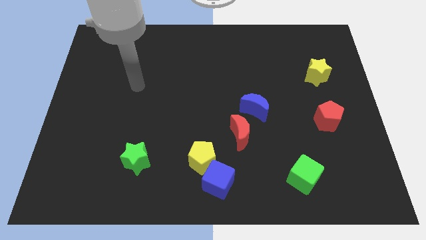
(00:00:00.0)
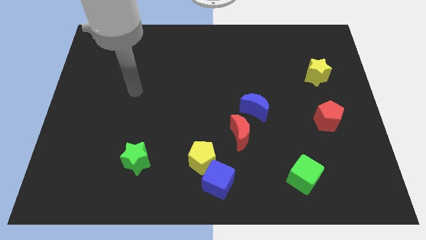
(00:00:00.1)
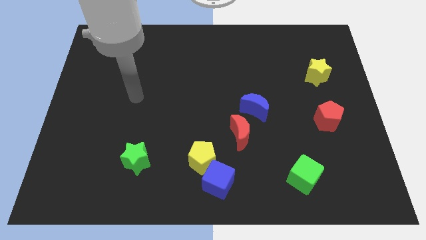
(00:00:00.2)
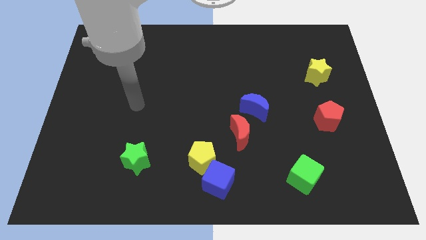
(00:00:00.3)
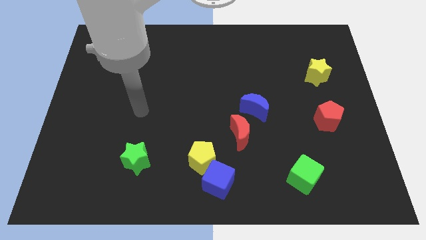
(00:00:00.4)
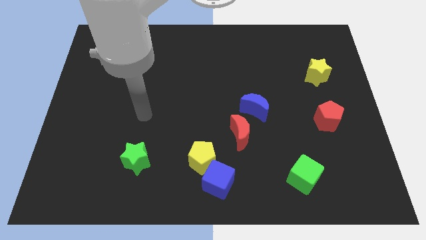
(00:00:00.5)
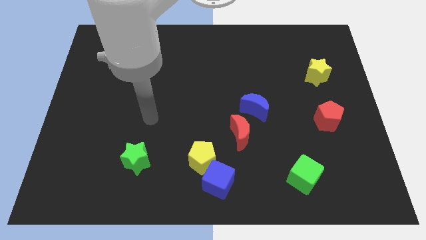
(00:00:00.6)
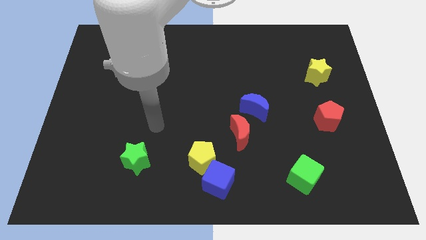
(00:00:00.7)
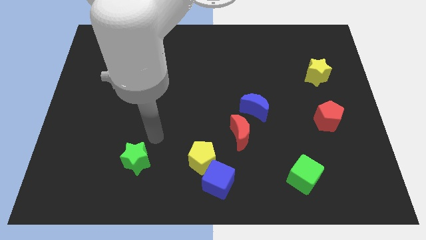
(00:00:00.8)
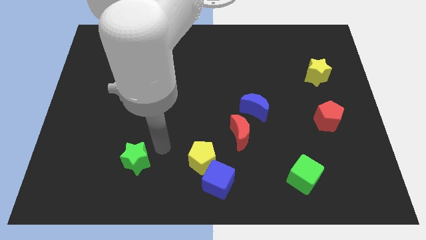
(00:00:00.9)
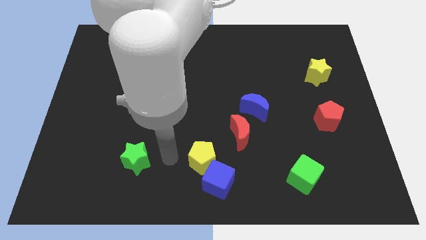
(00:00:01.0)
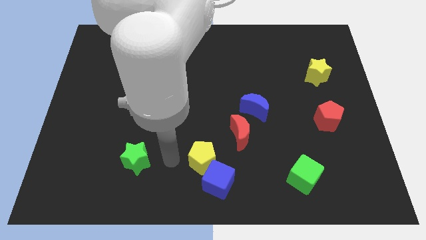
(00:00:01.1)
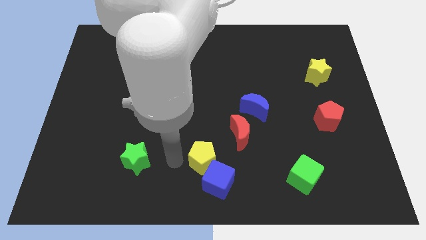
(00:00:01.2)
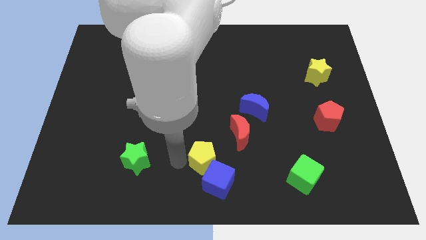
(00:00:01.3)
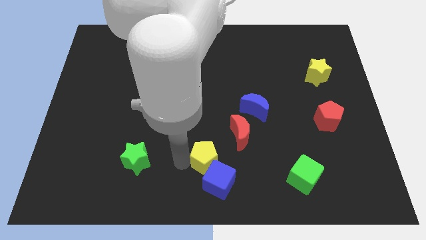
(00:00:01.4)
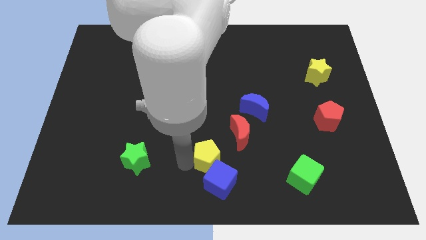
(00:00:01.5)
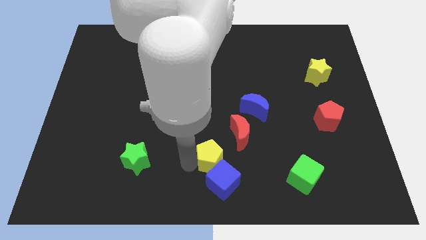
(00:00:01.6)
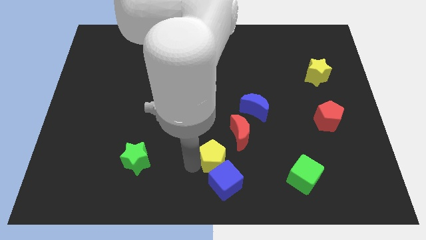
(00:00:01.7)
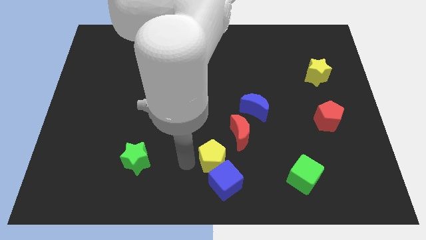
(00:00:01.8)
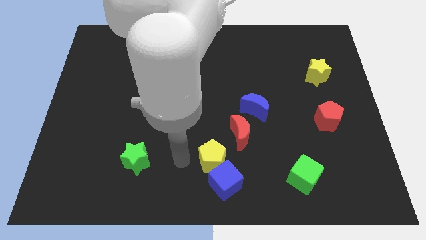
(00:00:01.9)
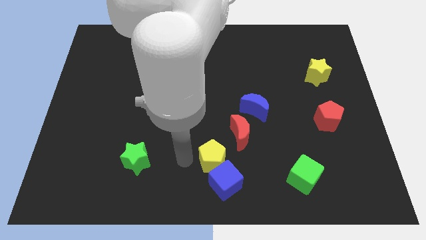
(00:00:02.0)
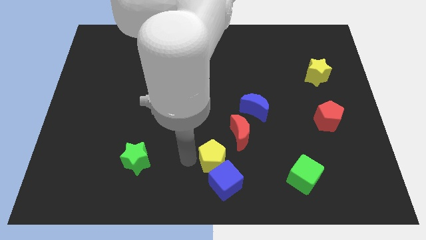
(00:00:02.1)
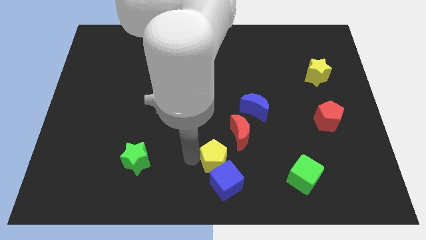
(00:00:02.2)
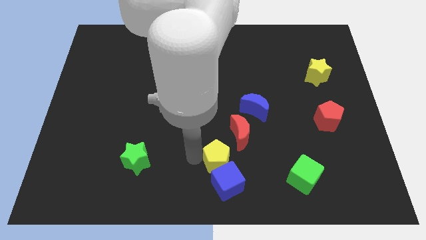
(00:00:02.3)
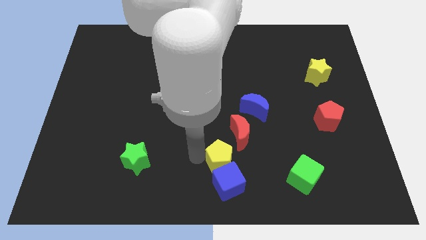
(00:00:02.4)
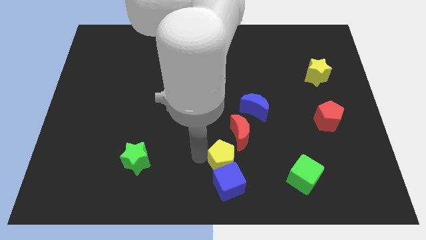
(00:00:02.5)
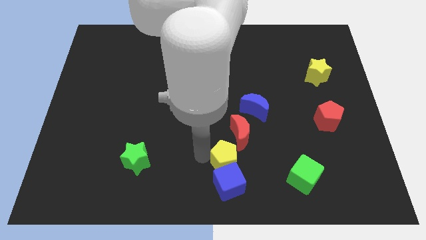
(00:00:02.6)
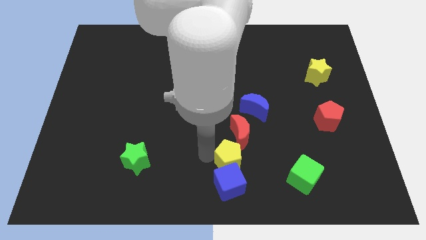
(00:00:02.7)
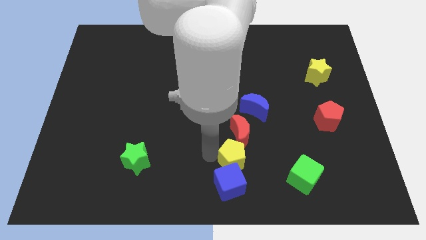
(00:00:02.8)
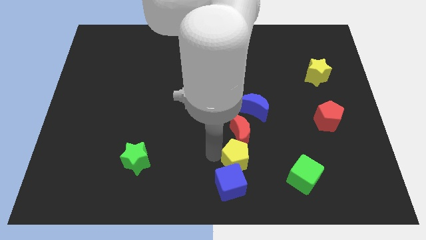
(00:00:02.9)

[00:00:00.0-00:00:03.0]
push the yellow pentagon to the right somewhat

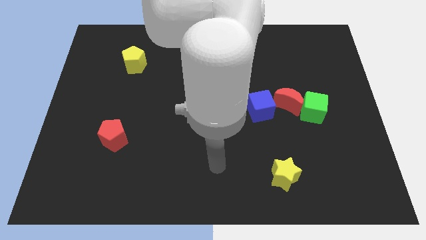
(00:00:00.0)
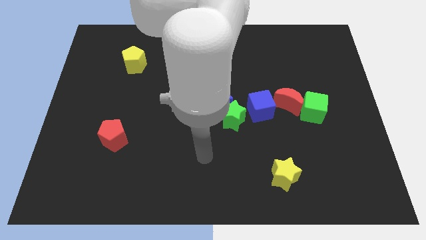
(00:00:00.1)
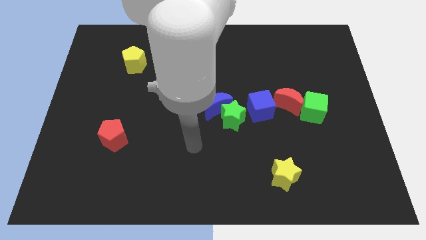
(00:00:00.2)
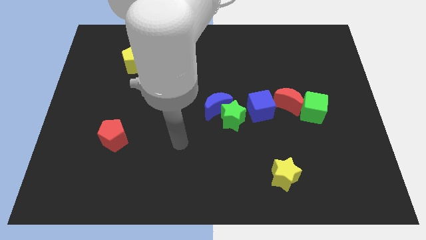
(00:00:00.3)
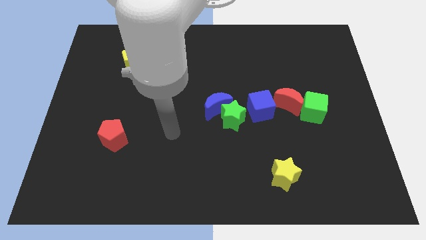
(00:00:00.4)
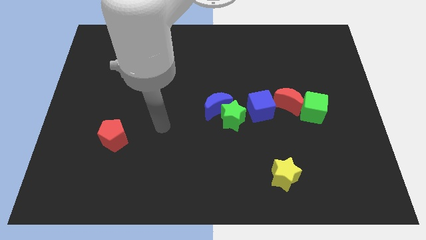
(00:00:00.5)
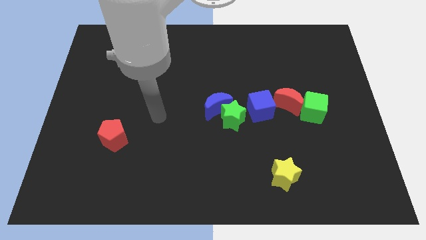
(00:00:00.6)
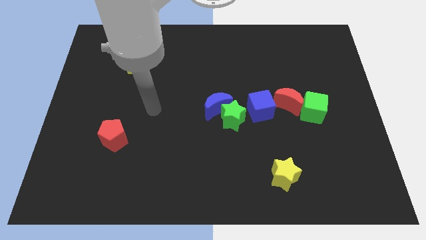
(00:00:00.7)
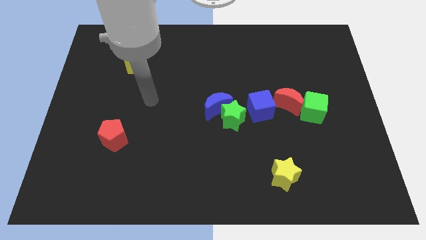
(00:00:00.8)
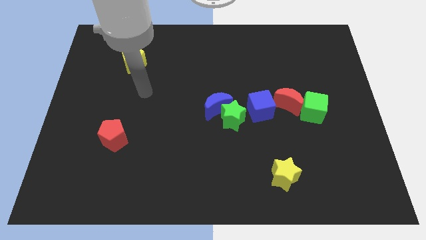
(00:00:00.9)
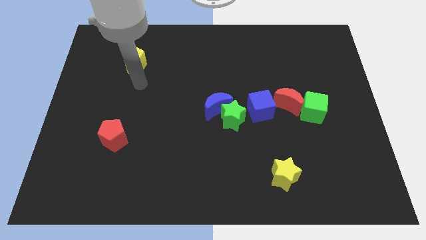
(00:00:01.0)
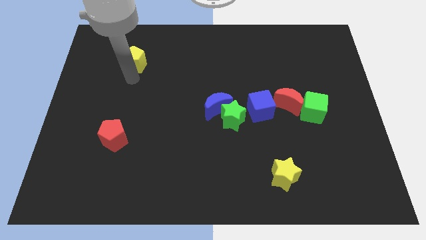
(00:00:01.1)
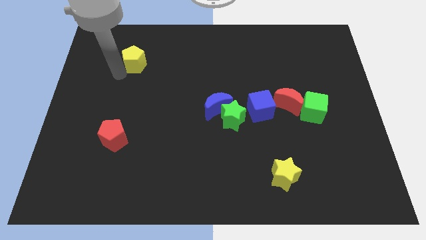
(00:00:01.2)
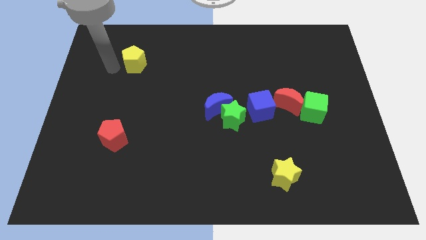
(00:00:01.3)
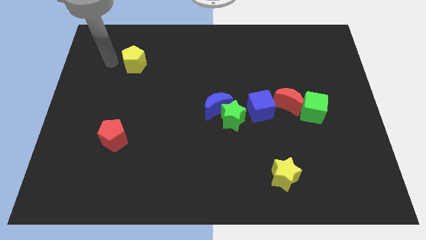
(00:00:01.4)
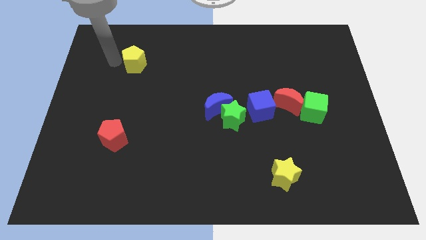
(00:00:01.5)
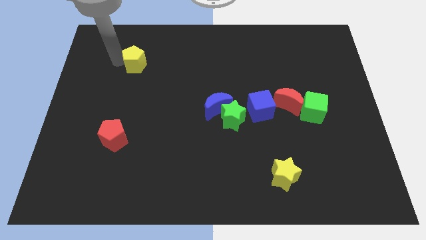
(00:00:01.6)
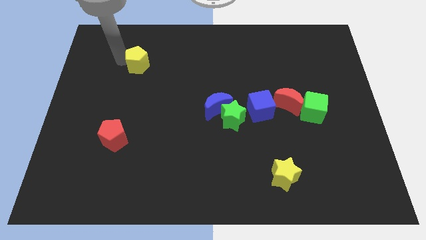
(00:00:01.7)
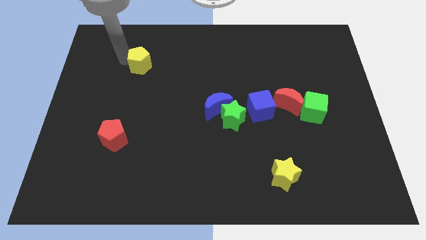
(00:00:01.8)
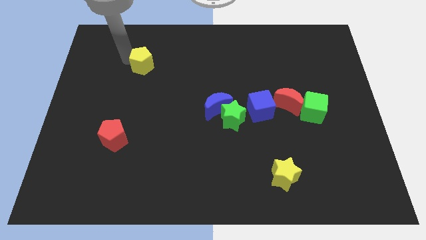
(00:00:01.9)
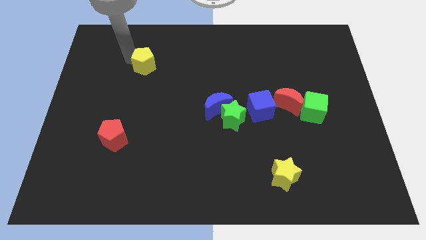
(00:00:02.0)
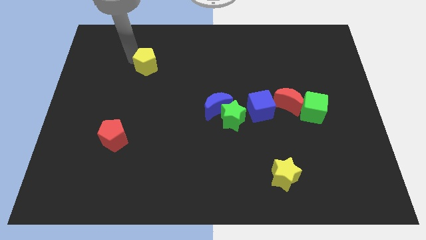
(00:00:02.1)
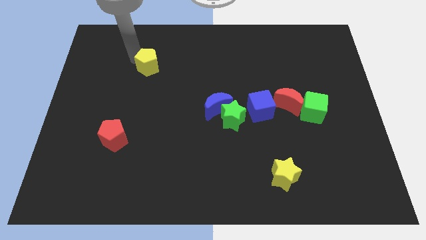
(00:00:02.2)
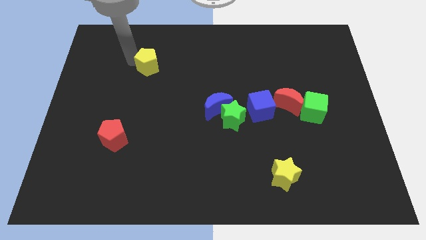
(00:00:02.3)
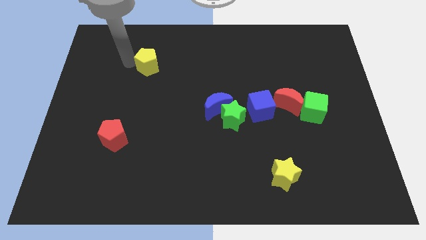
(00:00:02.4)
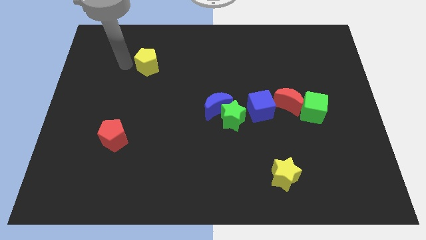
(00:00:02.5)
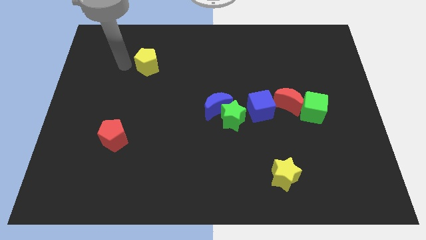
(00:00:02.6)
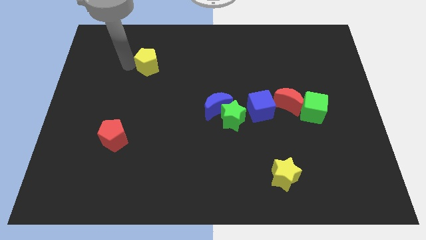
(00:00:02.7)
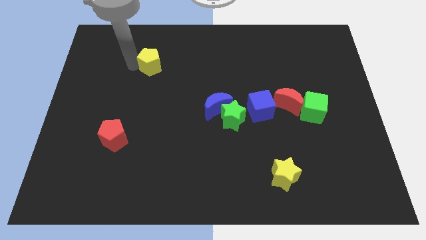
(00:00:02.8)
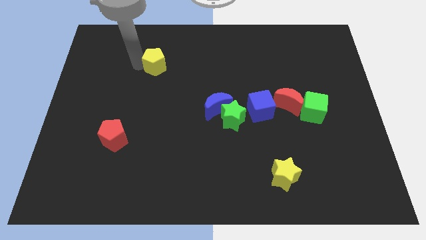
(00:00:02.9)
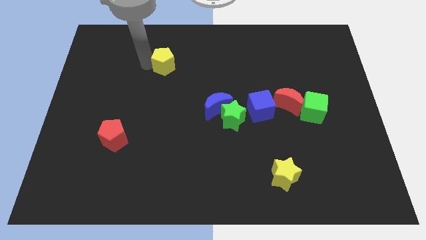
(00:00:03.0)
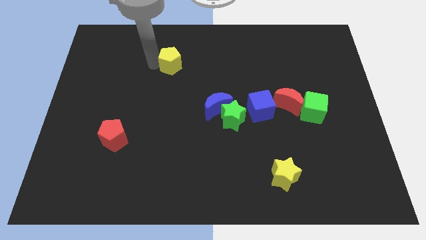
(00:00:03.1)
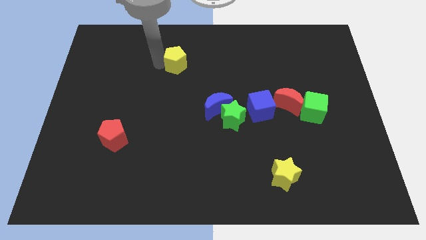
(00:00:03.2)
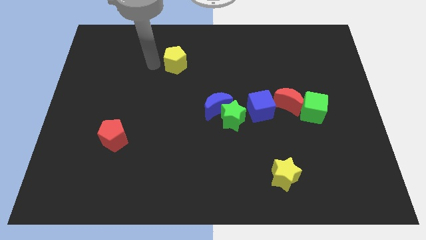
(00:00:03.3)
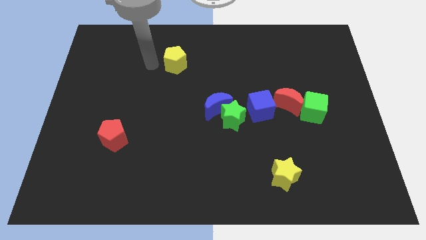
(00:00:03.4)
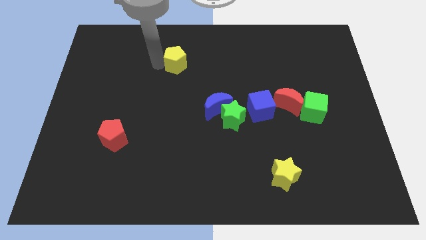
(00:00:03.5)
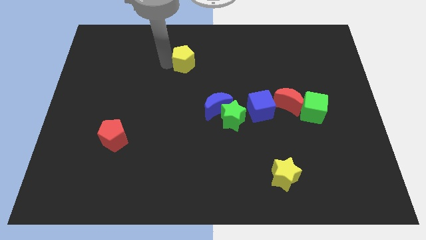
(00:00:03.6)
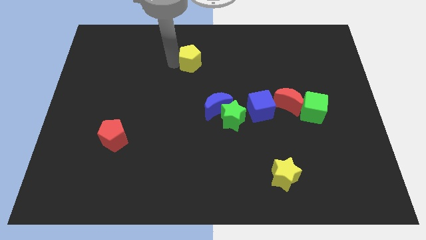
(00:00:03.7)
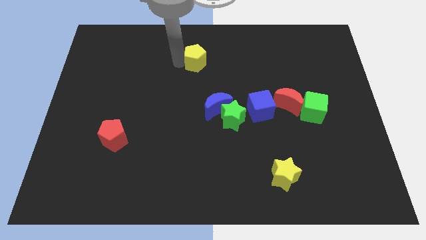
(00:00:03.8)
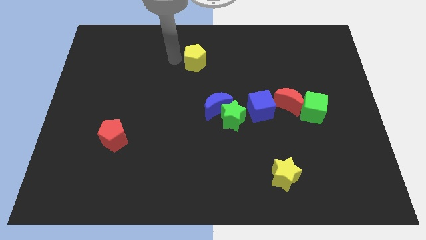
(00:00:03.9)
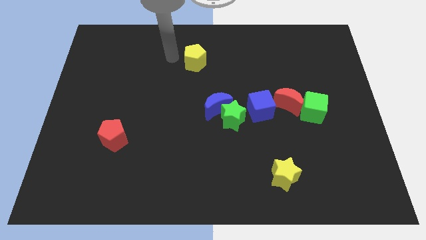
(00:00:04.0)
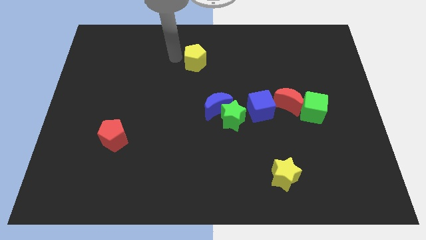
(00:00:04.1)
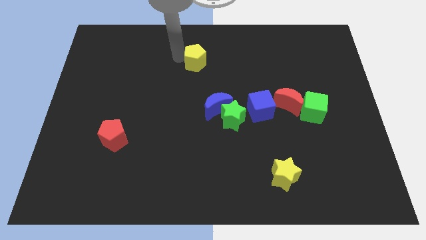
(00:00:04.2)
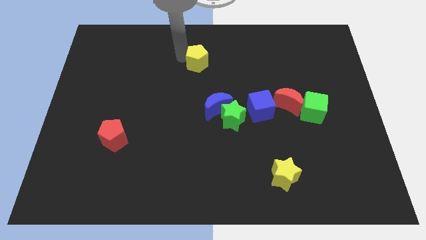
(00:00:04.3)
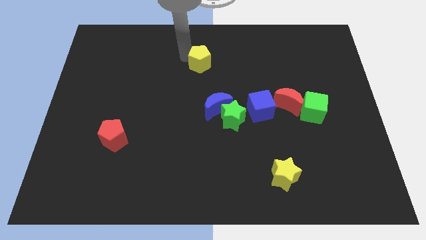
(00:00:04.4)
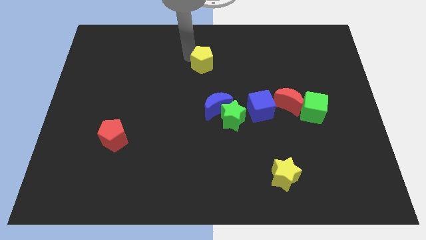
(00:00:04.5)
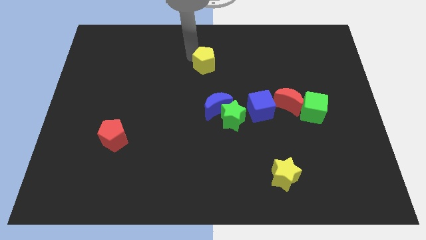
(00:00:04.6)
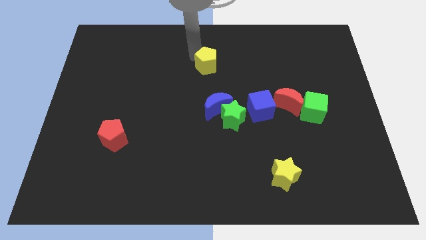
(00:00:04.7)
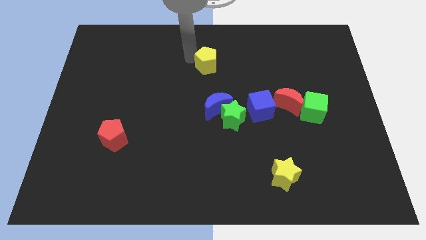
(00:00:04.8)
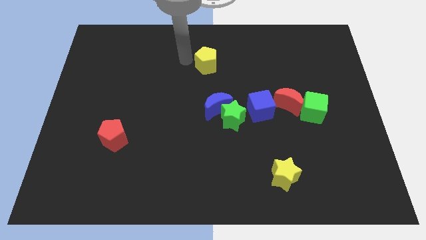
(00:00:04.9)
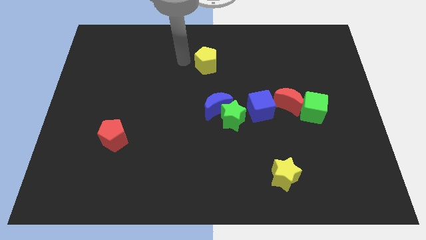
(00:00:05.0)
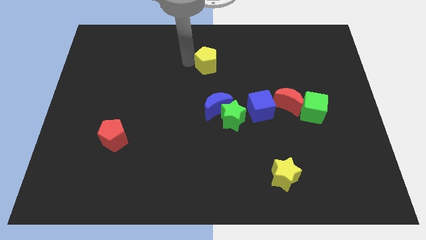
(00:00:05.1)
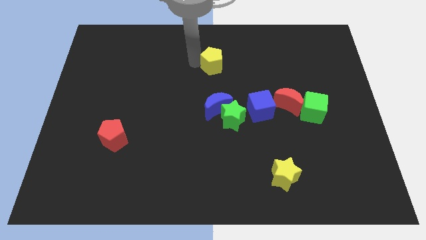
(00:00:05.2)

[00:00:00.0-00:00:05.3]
push the yellow pentagon right

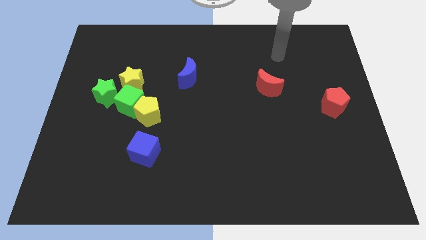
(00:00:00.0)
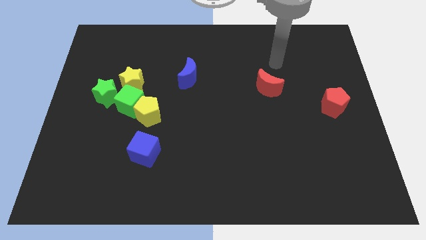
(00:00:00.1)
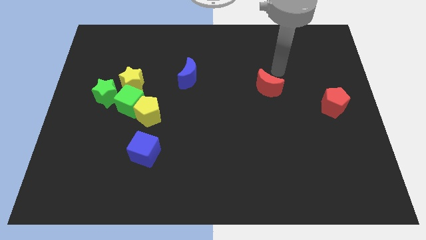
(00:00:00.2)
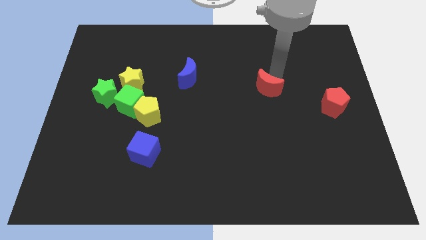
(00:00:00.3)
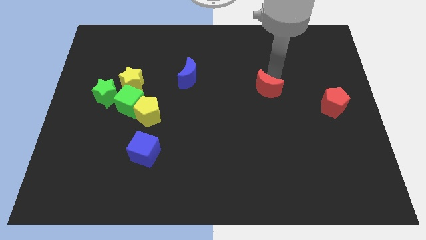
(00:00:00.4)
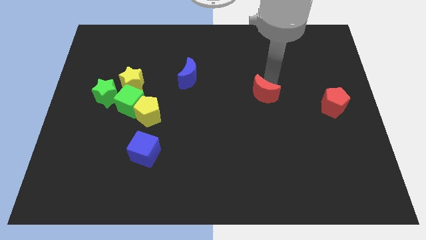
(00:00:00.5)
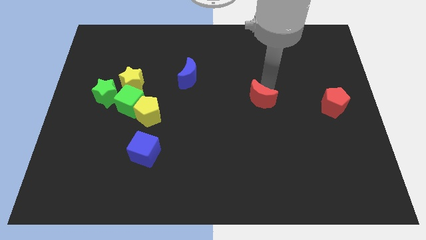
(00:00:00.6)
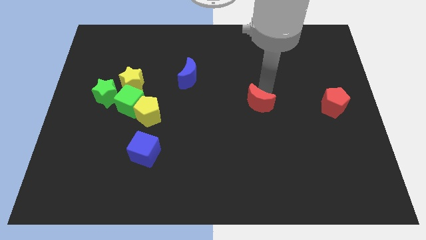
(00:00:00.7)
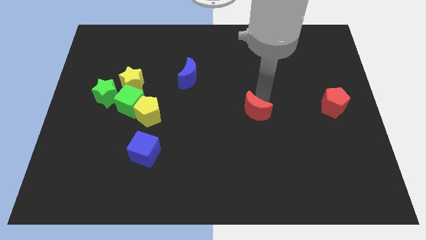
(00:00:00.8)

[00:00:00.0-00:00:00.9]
slightly move the red moon diagonally downwards and left
